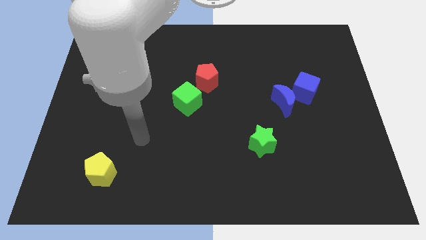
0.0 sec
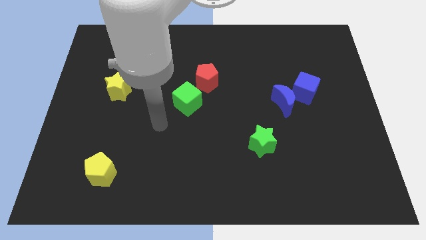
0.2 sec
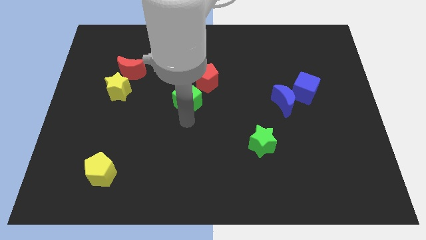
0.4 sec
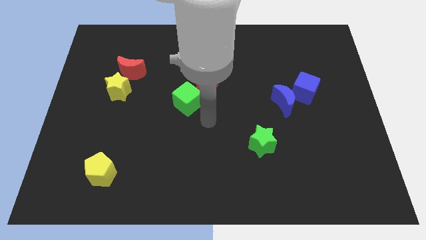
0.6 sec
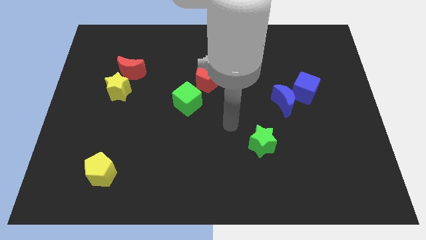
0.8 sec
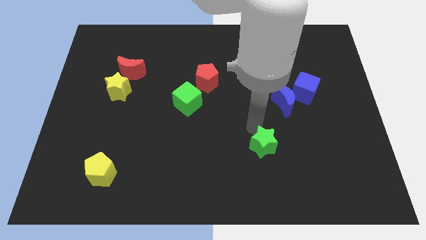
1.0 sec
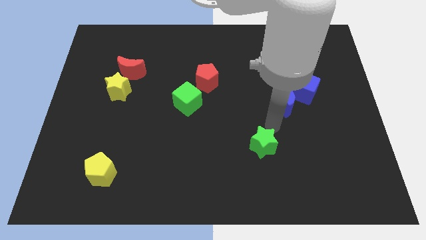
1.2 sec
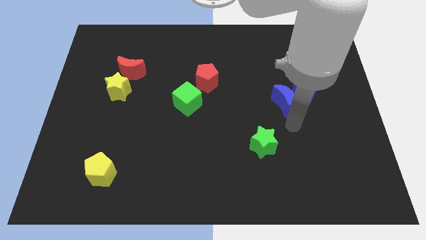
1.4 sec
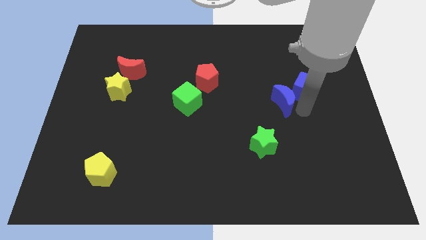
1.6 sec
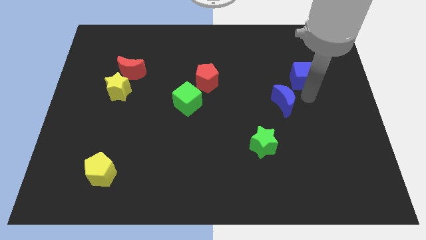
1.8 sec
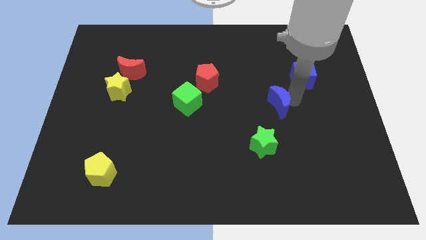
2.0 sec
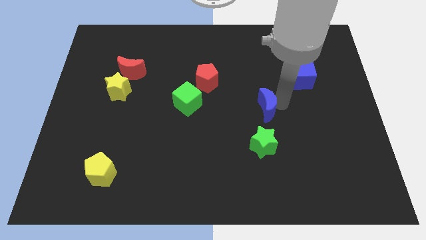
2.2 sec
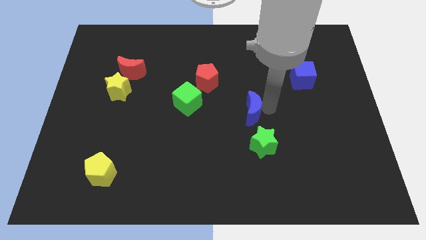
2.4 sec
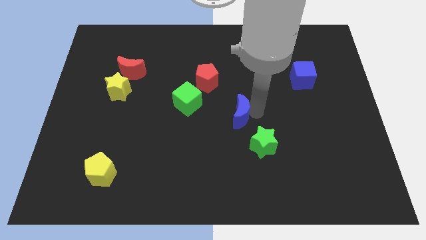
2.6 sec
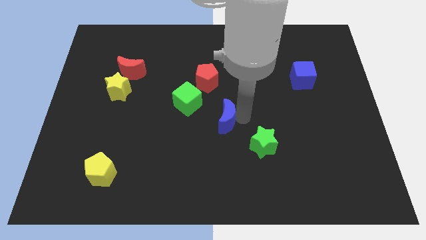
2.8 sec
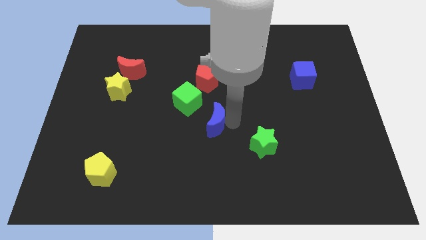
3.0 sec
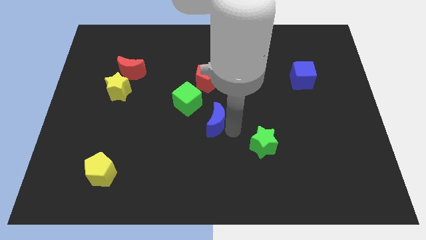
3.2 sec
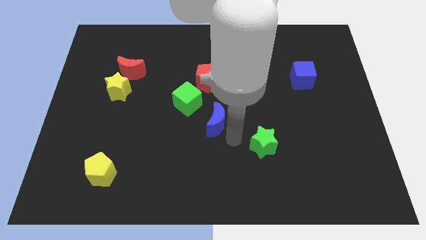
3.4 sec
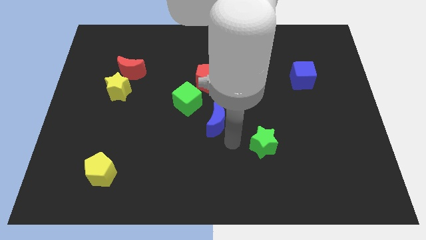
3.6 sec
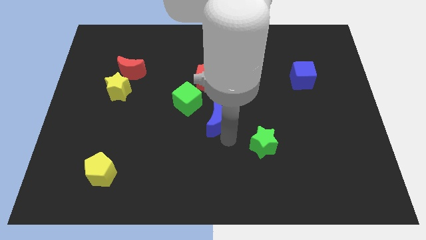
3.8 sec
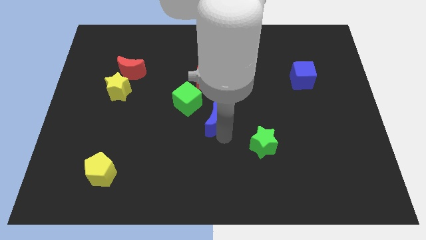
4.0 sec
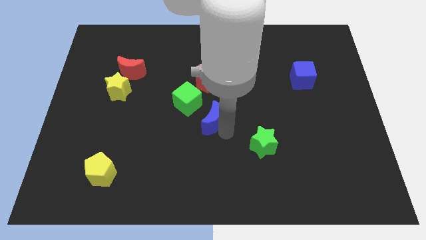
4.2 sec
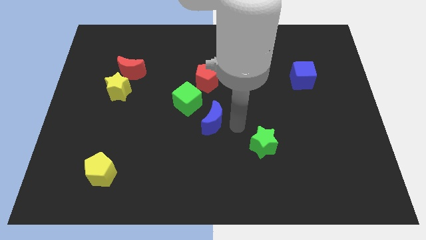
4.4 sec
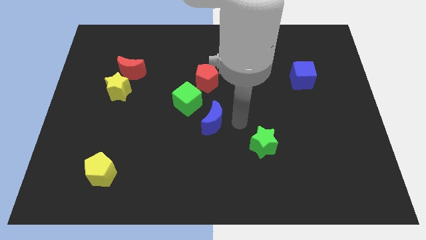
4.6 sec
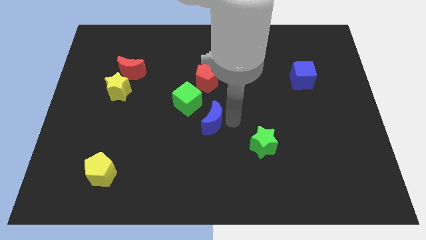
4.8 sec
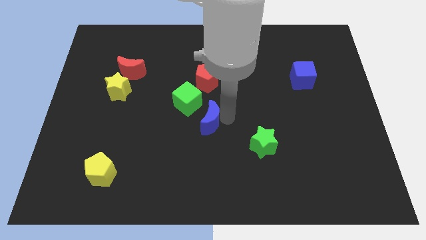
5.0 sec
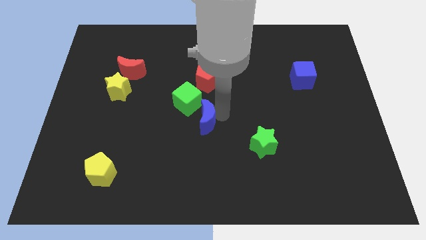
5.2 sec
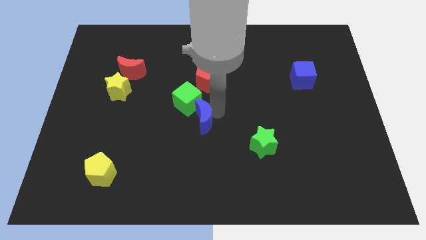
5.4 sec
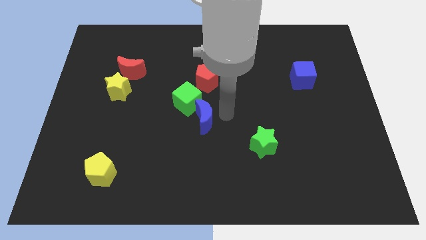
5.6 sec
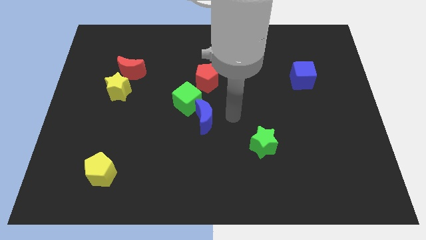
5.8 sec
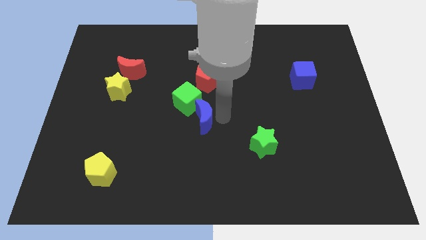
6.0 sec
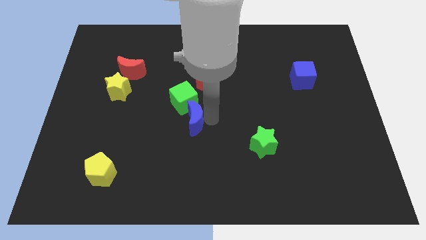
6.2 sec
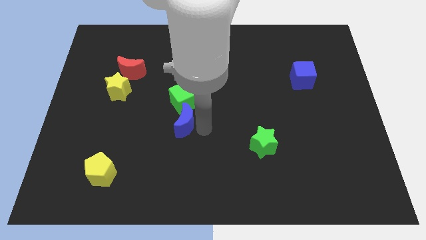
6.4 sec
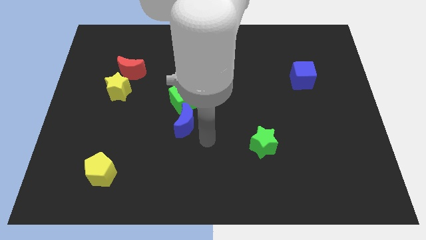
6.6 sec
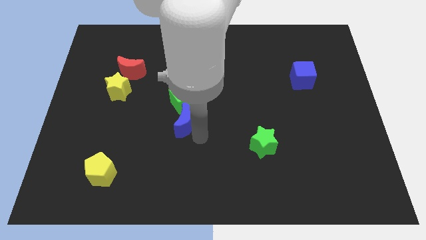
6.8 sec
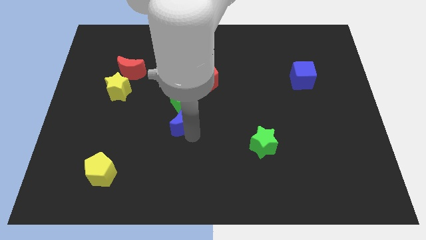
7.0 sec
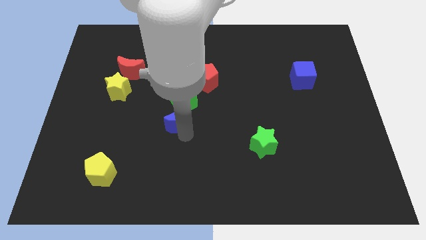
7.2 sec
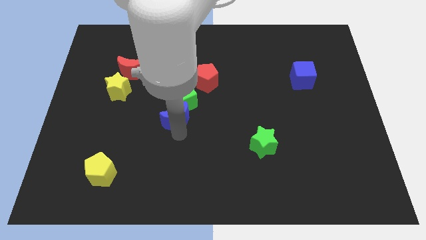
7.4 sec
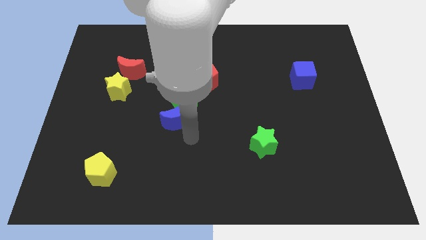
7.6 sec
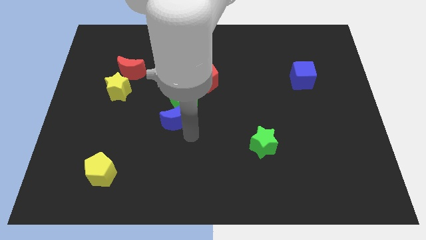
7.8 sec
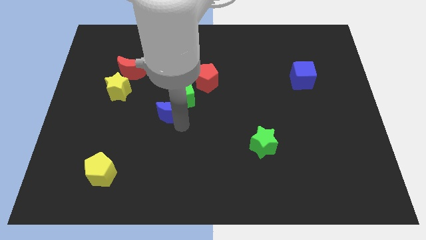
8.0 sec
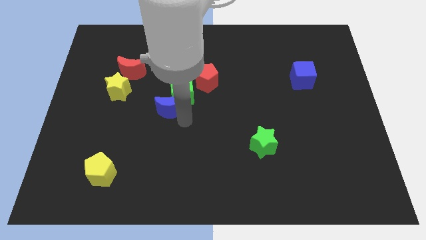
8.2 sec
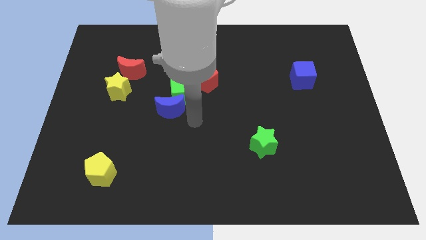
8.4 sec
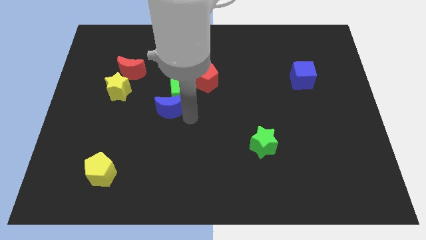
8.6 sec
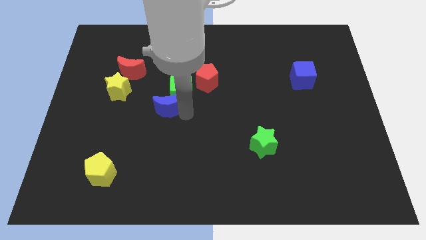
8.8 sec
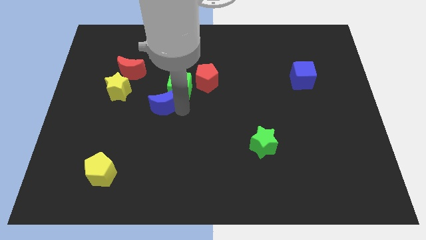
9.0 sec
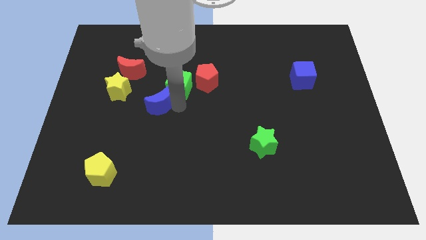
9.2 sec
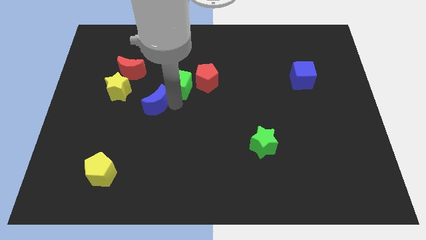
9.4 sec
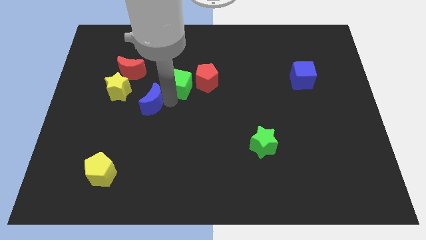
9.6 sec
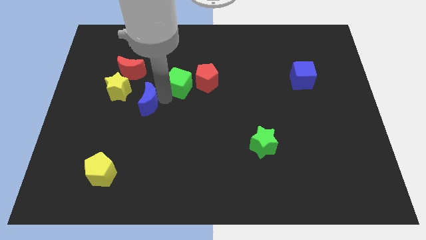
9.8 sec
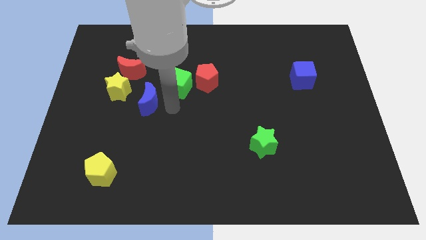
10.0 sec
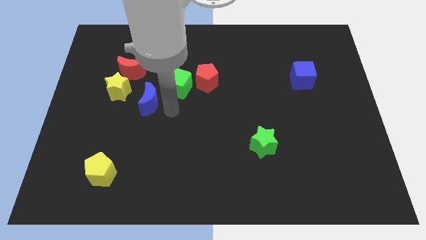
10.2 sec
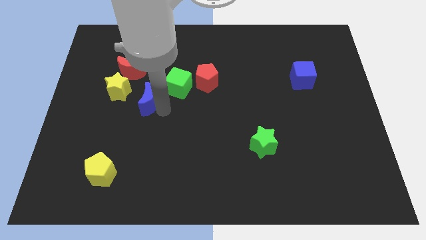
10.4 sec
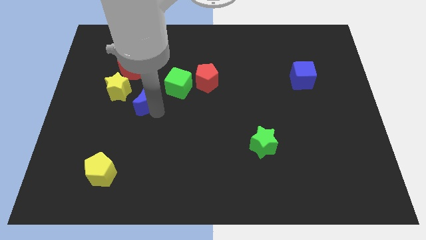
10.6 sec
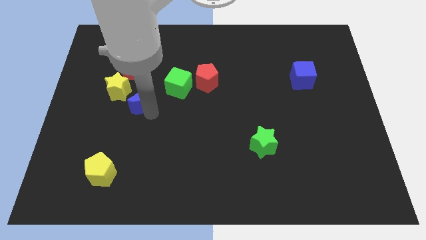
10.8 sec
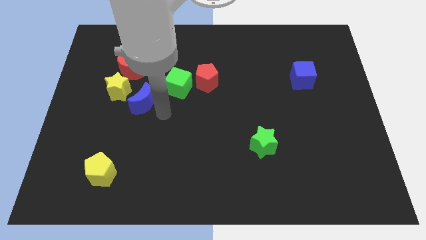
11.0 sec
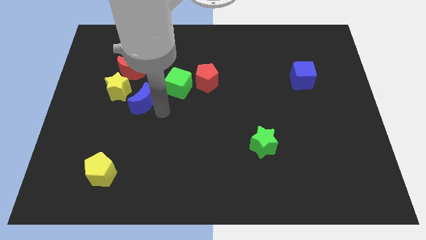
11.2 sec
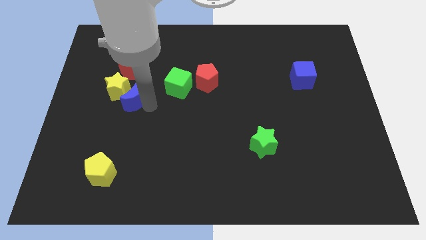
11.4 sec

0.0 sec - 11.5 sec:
move the blue moon close to the yellow star

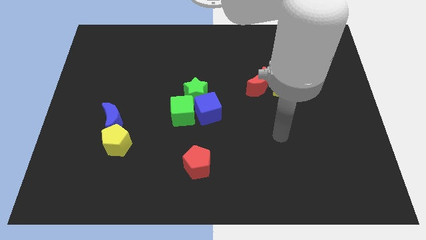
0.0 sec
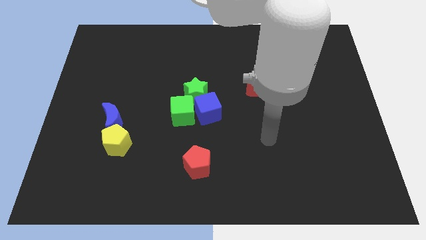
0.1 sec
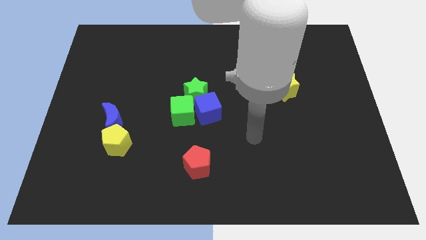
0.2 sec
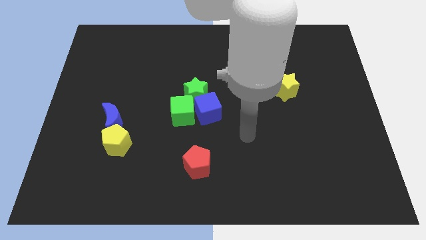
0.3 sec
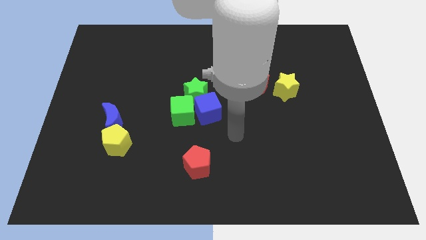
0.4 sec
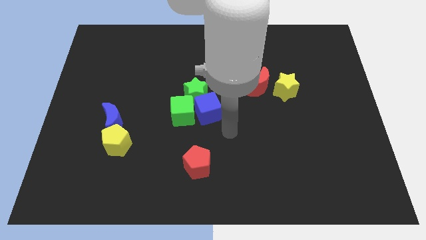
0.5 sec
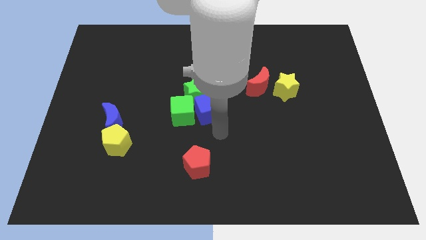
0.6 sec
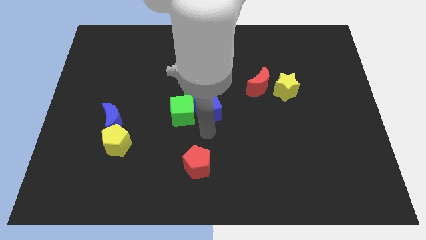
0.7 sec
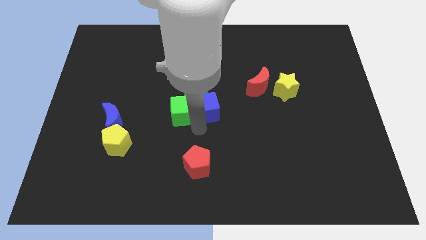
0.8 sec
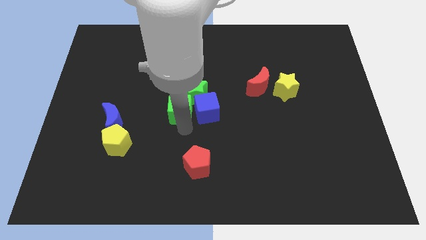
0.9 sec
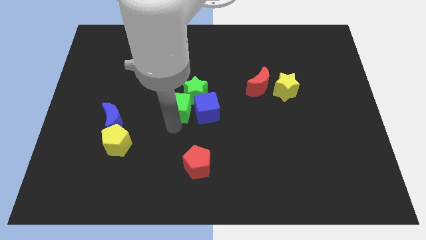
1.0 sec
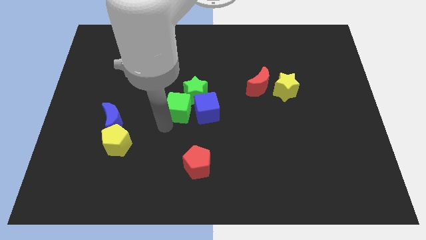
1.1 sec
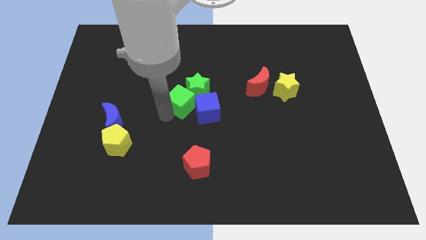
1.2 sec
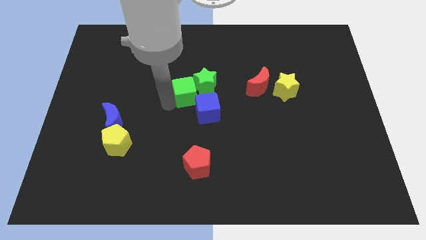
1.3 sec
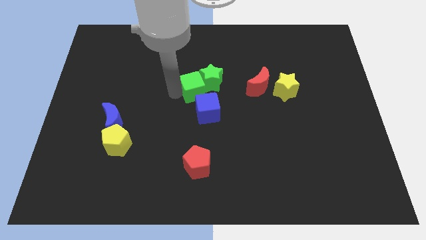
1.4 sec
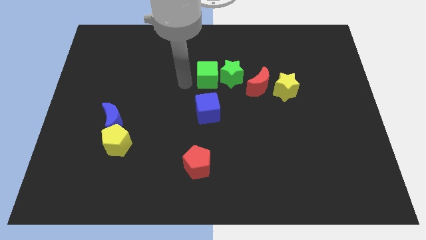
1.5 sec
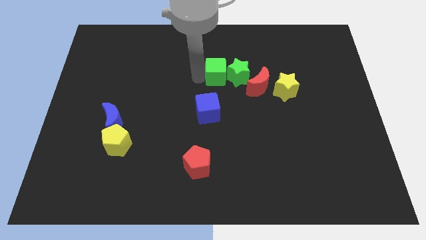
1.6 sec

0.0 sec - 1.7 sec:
push the green star close to the red moon
